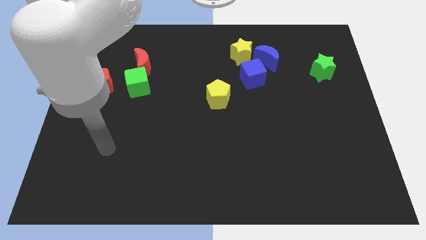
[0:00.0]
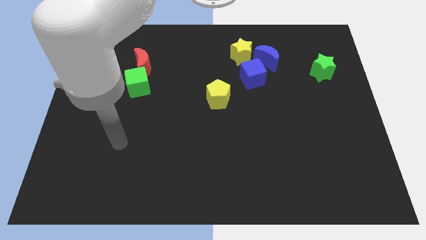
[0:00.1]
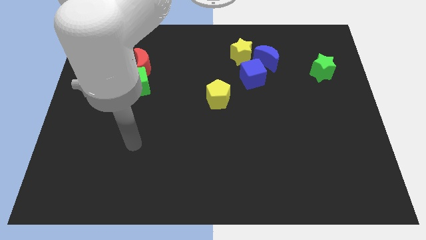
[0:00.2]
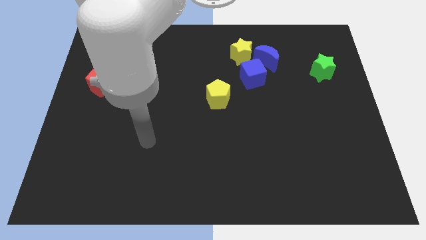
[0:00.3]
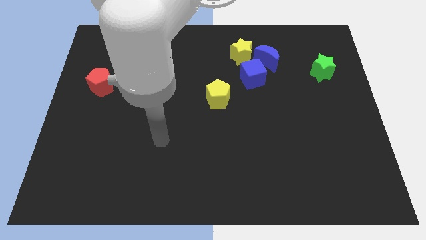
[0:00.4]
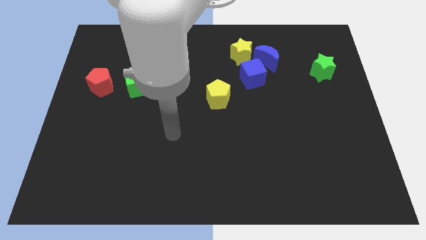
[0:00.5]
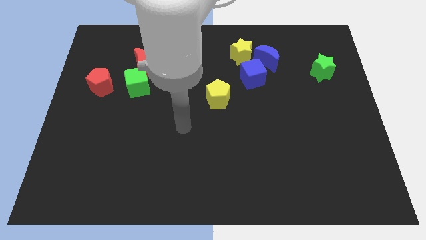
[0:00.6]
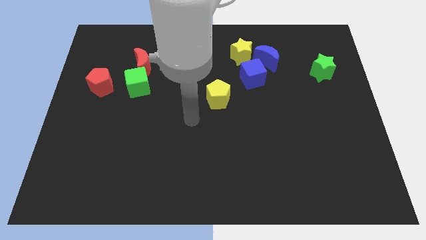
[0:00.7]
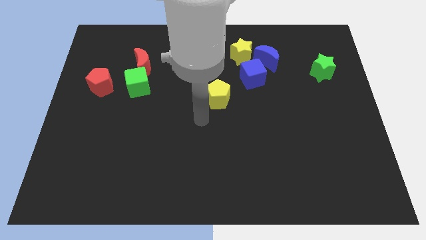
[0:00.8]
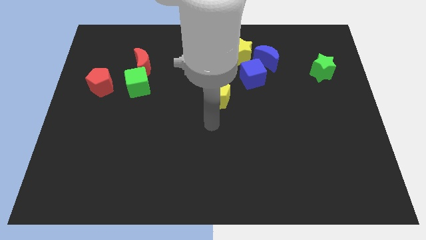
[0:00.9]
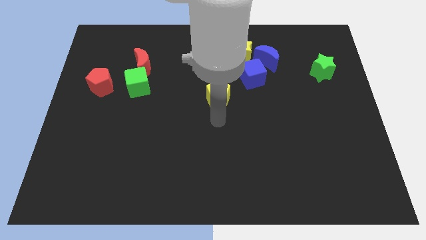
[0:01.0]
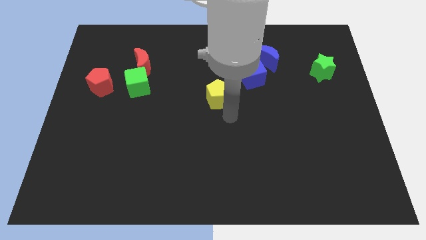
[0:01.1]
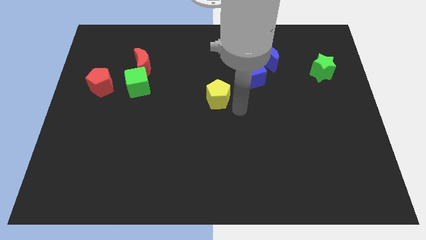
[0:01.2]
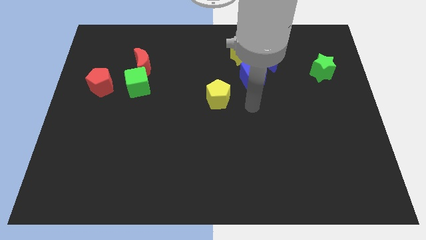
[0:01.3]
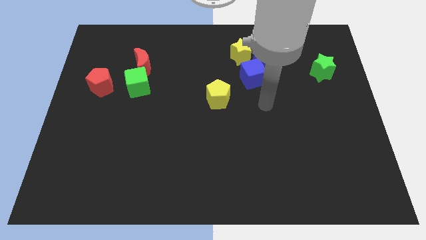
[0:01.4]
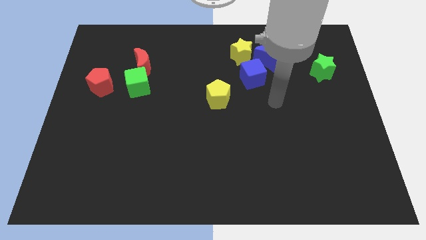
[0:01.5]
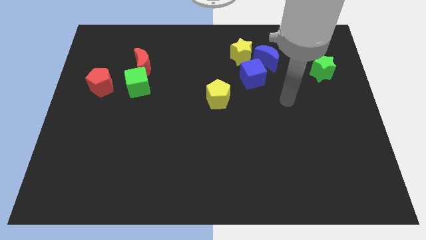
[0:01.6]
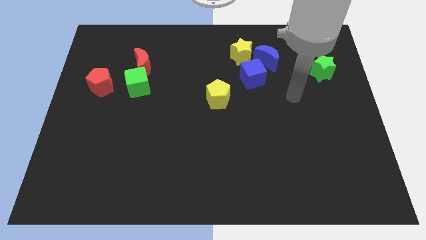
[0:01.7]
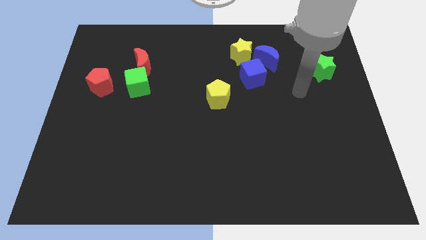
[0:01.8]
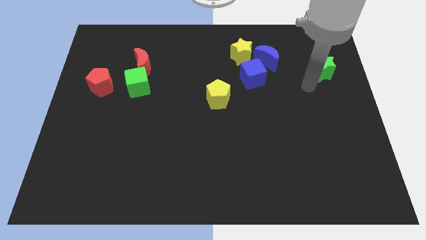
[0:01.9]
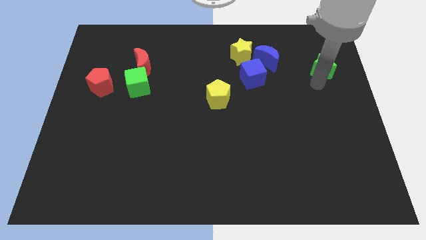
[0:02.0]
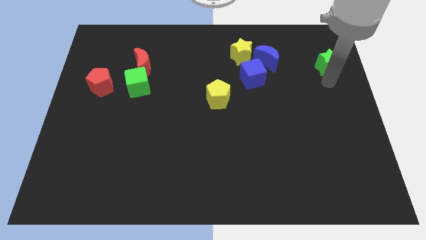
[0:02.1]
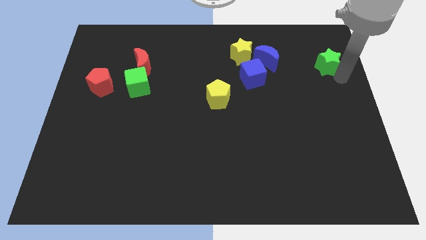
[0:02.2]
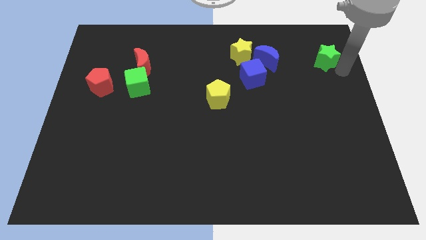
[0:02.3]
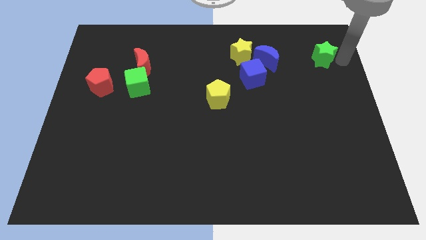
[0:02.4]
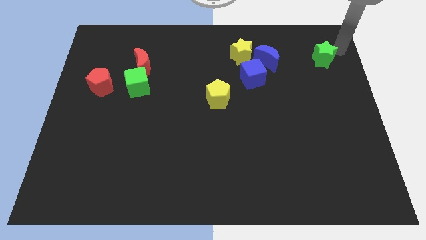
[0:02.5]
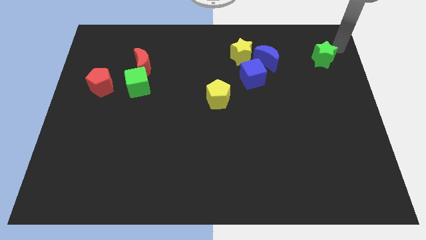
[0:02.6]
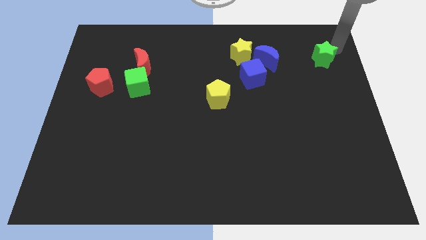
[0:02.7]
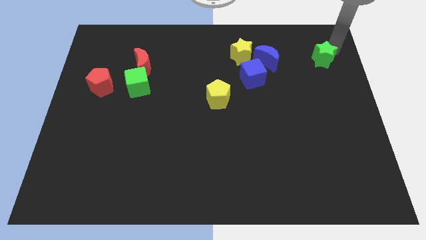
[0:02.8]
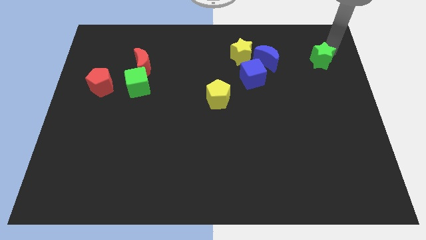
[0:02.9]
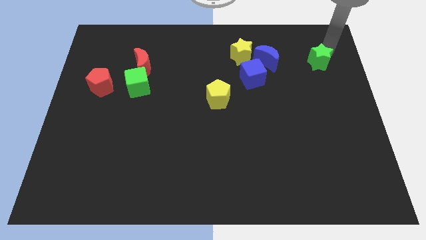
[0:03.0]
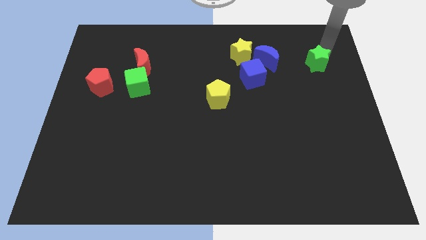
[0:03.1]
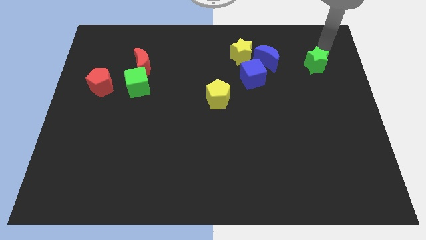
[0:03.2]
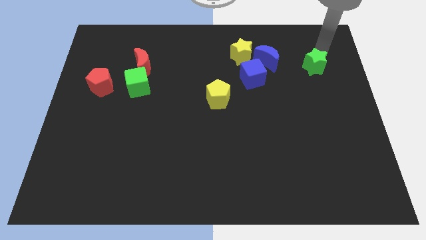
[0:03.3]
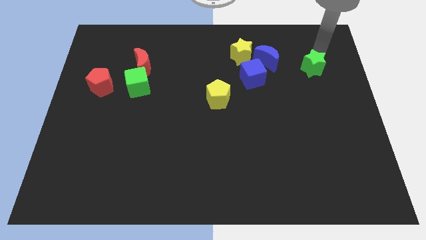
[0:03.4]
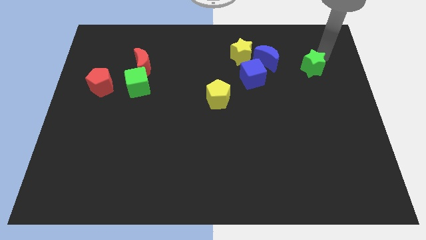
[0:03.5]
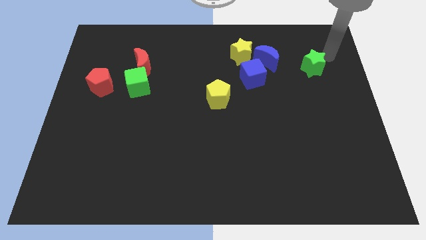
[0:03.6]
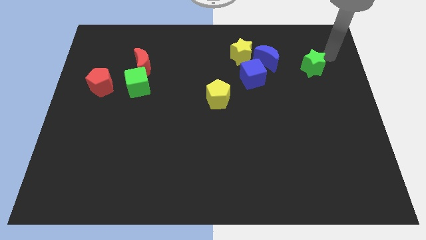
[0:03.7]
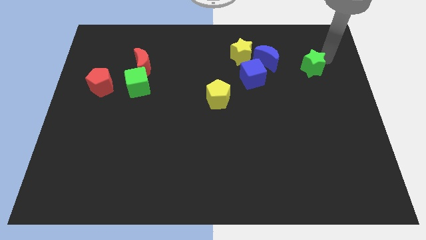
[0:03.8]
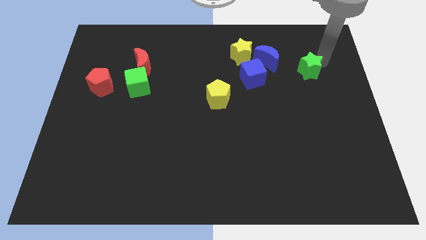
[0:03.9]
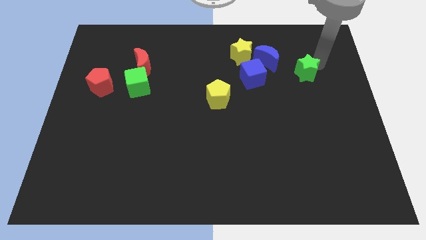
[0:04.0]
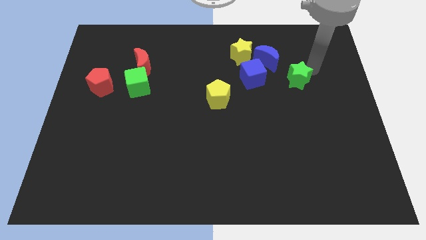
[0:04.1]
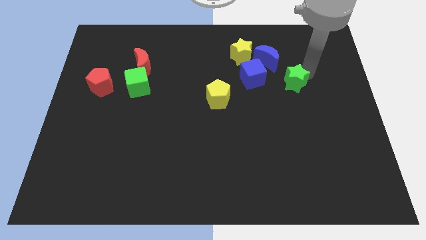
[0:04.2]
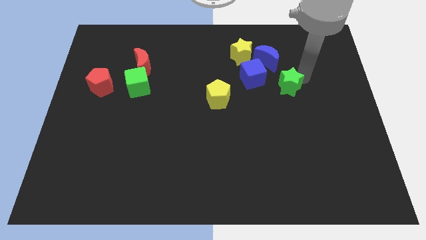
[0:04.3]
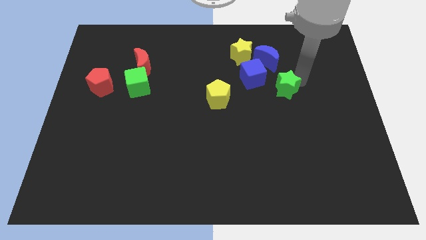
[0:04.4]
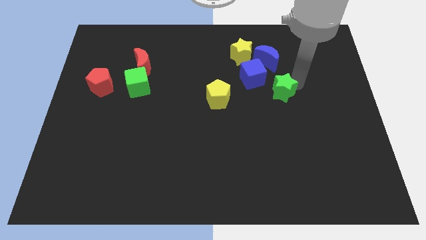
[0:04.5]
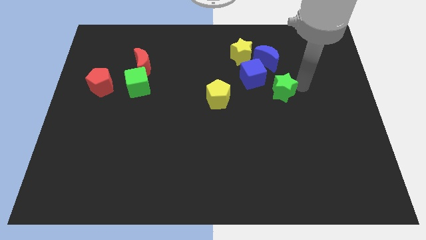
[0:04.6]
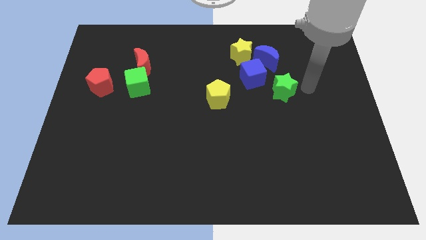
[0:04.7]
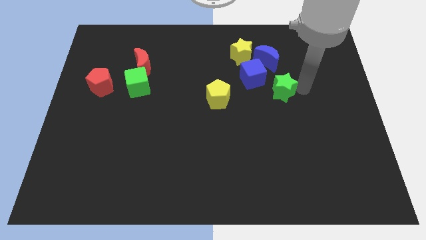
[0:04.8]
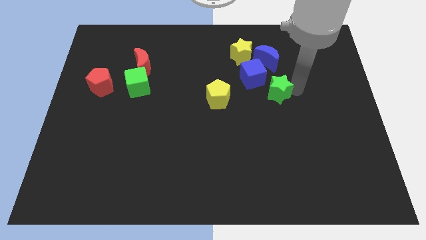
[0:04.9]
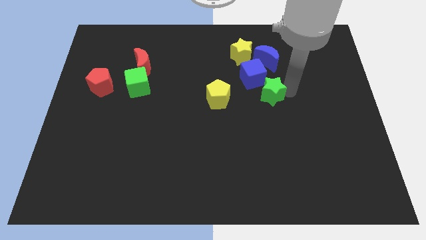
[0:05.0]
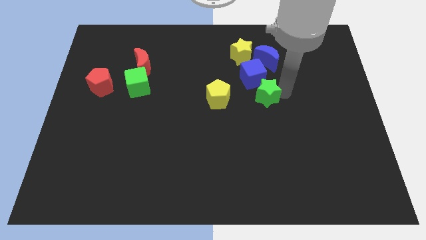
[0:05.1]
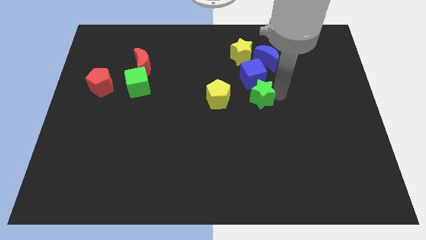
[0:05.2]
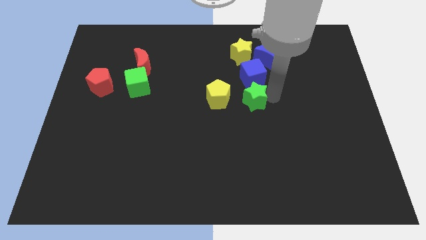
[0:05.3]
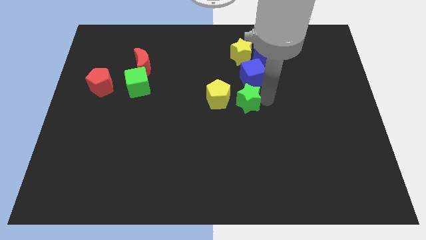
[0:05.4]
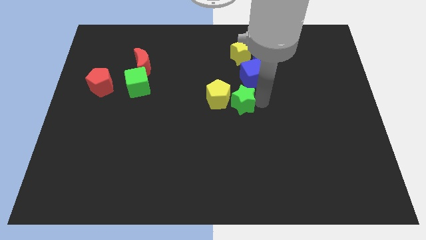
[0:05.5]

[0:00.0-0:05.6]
move the green star to the yellow pentagon

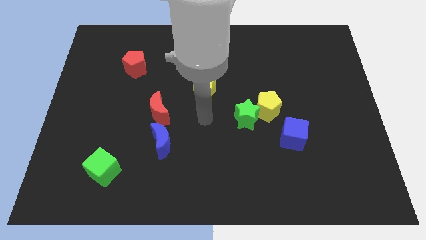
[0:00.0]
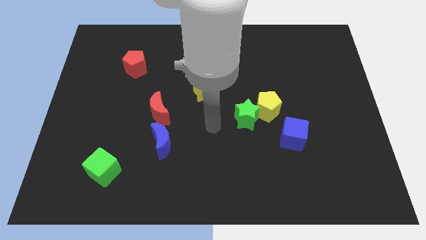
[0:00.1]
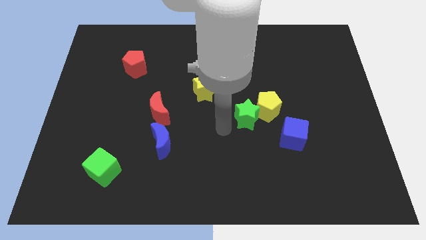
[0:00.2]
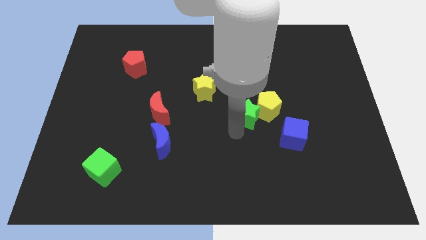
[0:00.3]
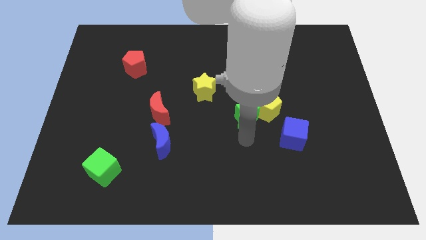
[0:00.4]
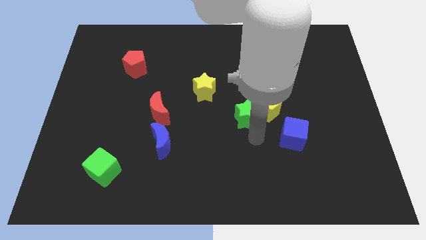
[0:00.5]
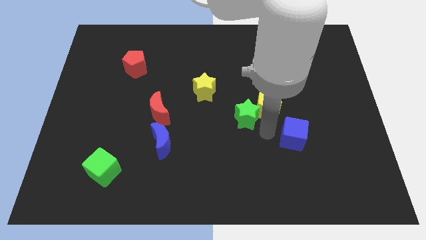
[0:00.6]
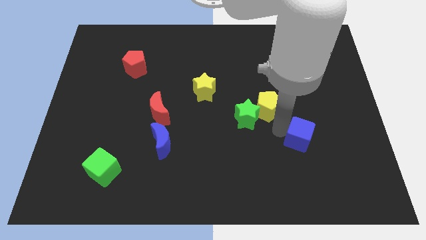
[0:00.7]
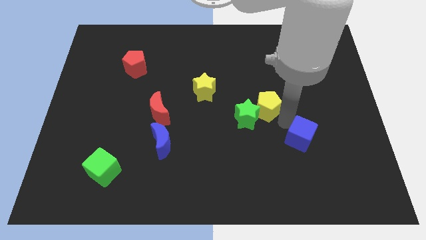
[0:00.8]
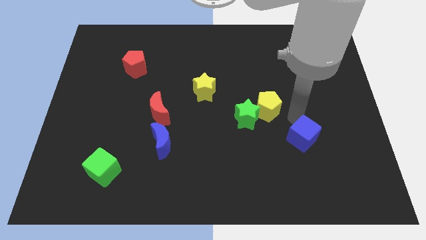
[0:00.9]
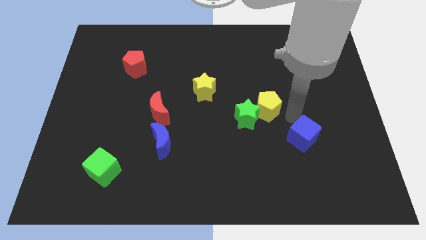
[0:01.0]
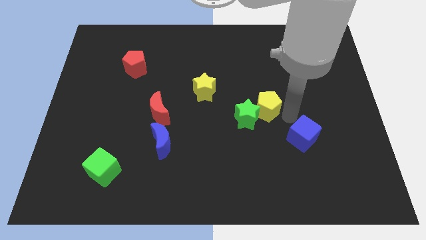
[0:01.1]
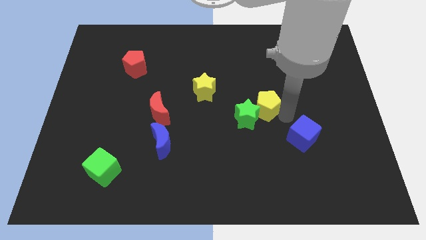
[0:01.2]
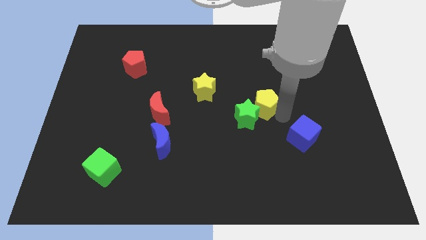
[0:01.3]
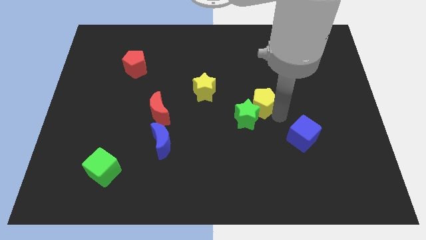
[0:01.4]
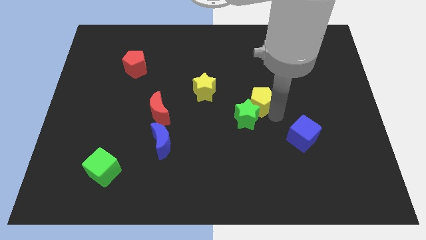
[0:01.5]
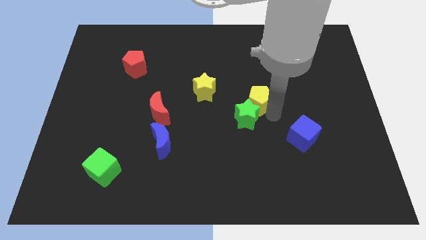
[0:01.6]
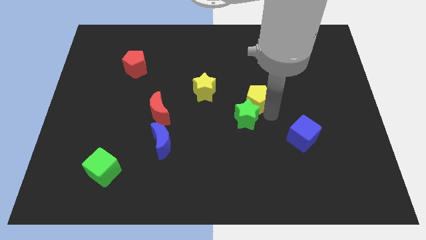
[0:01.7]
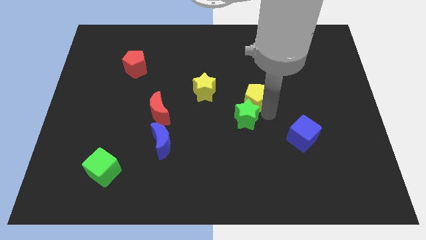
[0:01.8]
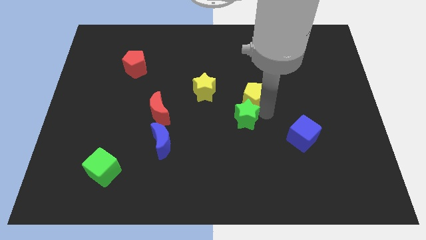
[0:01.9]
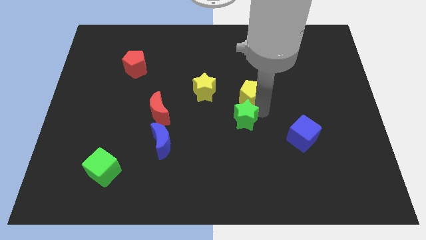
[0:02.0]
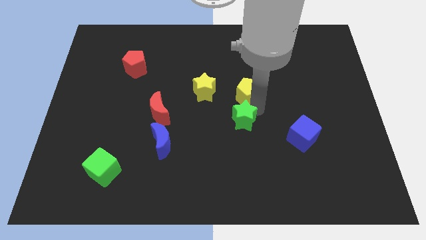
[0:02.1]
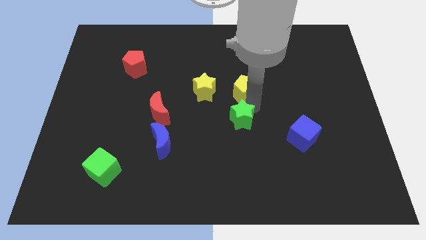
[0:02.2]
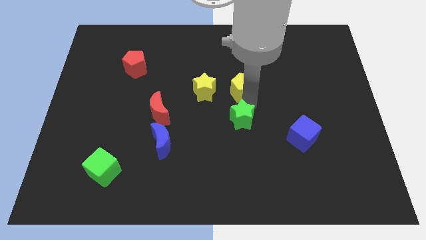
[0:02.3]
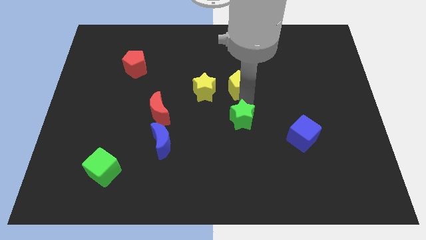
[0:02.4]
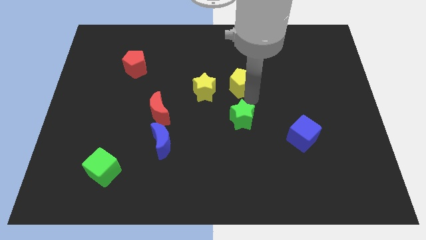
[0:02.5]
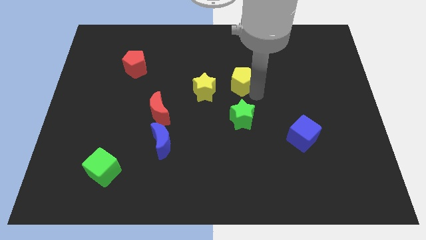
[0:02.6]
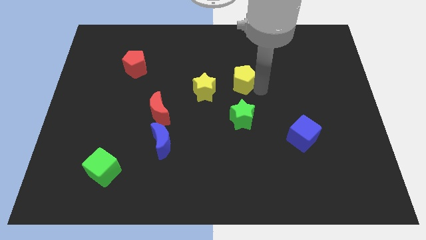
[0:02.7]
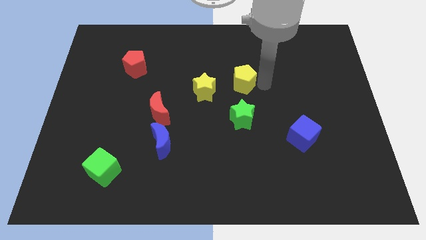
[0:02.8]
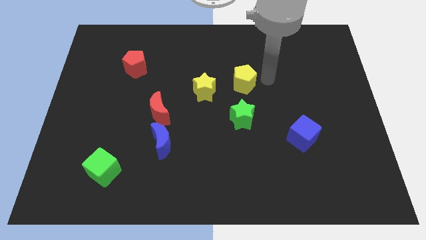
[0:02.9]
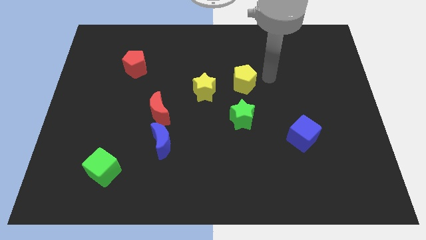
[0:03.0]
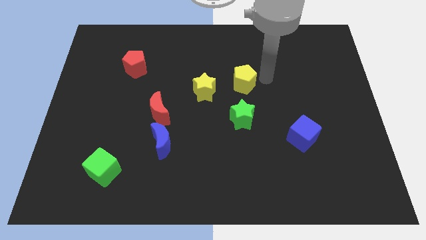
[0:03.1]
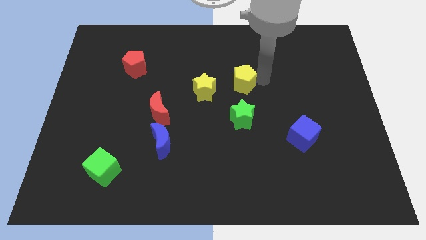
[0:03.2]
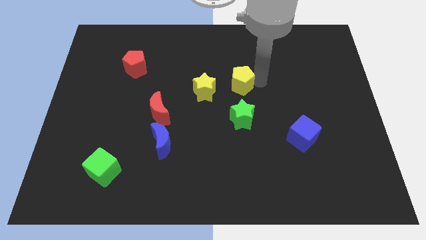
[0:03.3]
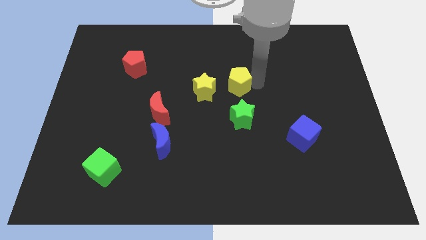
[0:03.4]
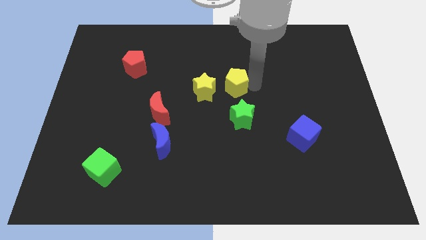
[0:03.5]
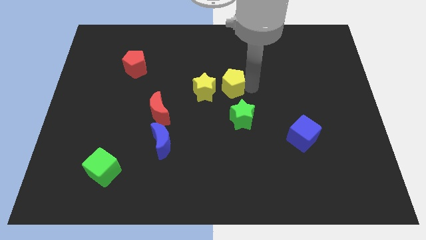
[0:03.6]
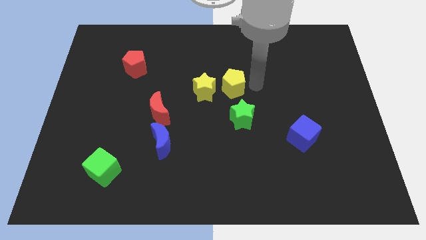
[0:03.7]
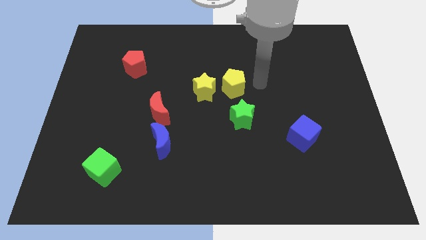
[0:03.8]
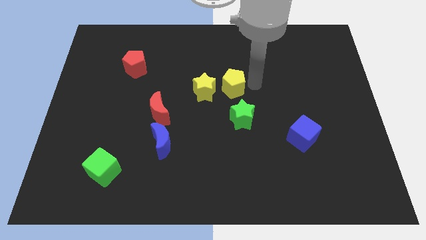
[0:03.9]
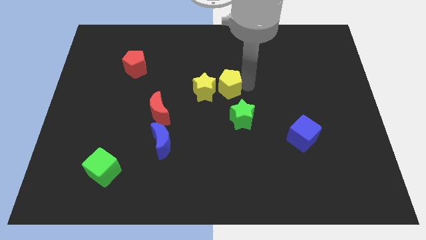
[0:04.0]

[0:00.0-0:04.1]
slide the yellow pentagon close to the yellow star
